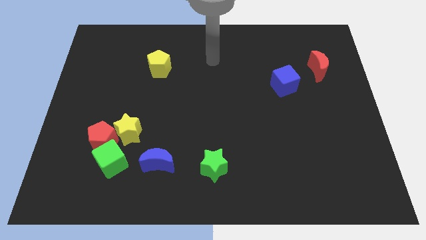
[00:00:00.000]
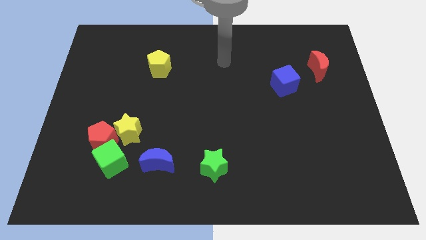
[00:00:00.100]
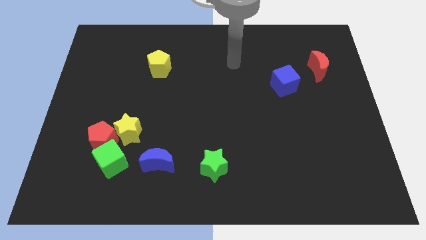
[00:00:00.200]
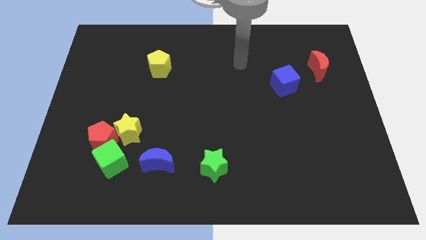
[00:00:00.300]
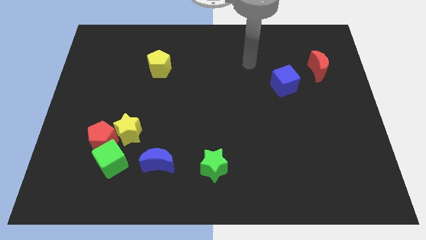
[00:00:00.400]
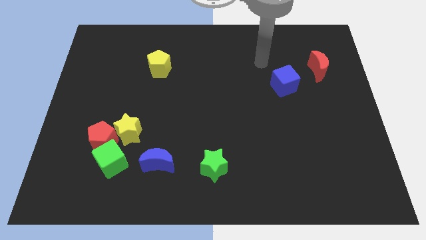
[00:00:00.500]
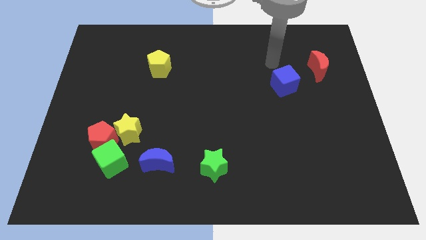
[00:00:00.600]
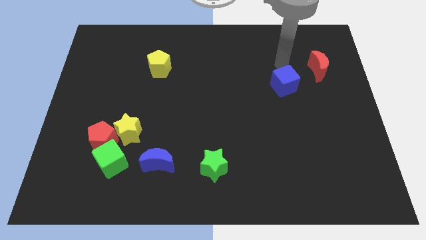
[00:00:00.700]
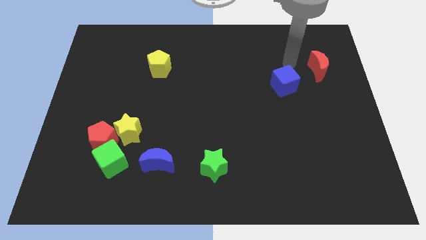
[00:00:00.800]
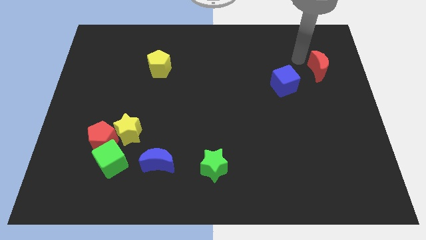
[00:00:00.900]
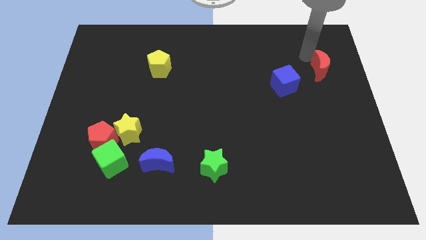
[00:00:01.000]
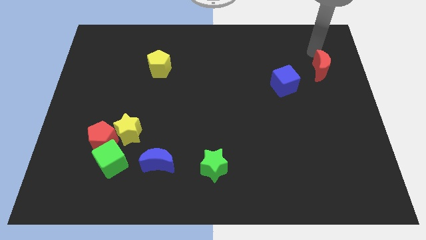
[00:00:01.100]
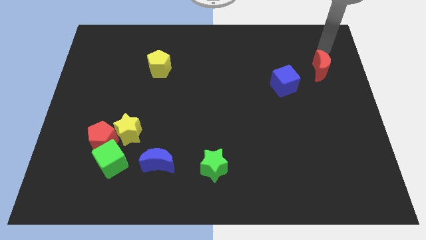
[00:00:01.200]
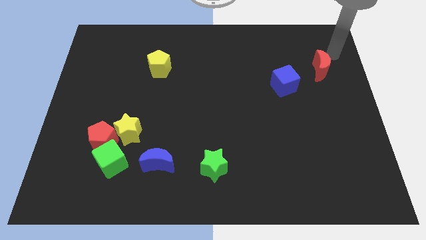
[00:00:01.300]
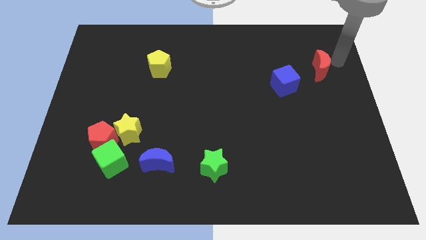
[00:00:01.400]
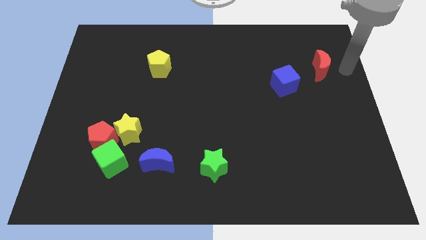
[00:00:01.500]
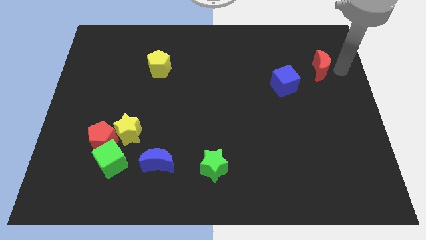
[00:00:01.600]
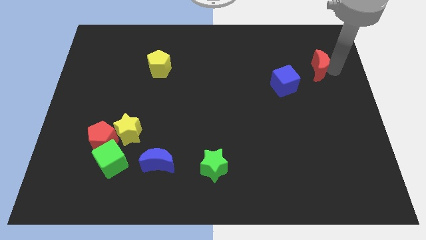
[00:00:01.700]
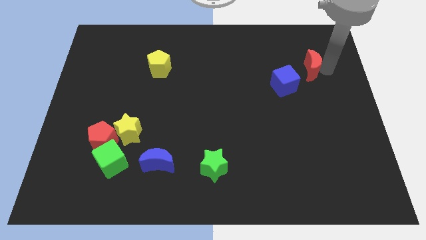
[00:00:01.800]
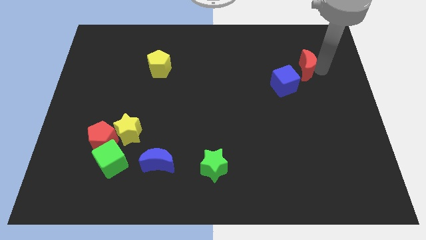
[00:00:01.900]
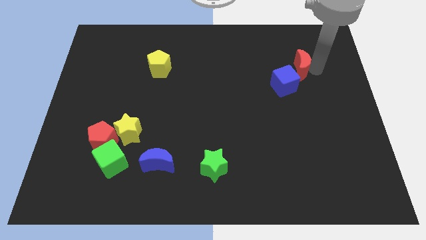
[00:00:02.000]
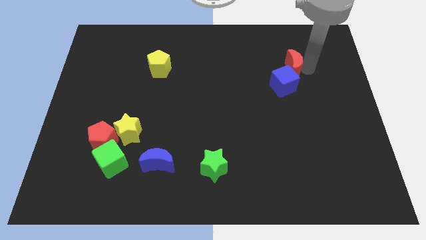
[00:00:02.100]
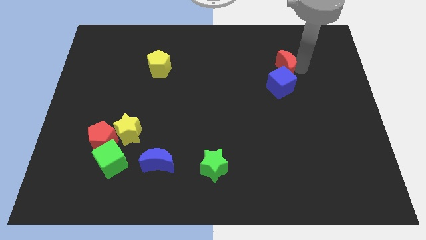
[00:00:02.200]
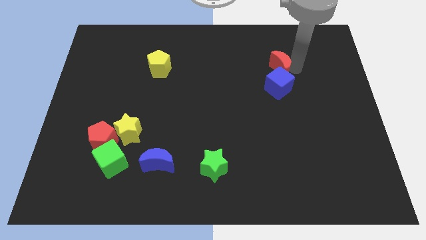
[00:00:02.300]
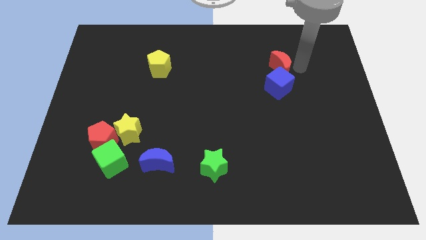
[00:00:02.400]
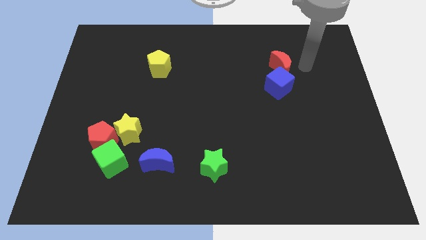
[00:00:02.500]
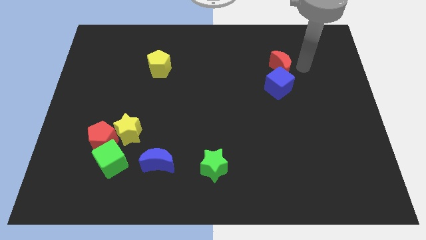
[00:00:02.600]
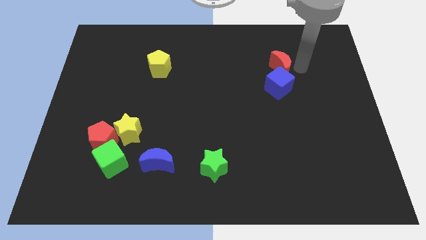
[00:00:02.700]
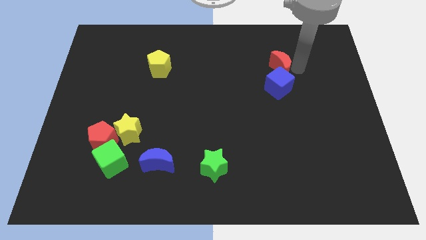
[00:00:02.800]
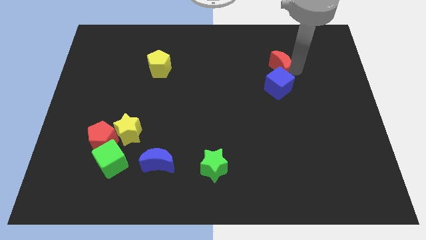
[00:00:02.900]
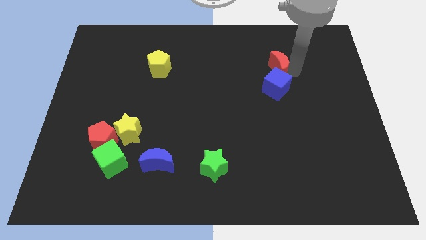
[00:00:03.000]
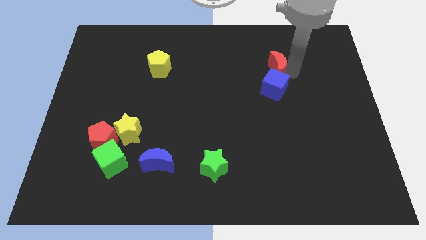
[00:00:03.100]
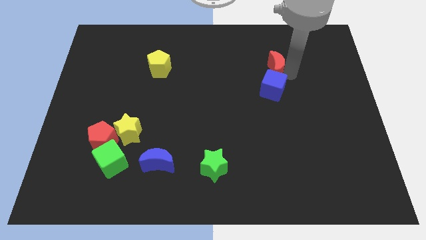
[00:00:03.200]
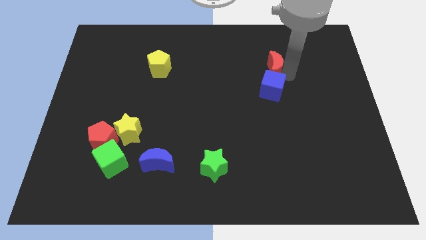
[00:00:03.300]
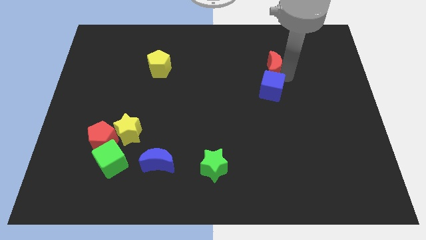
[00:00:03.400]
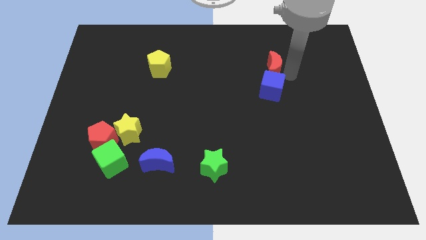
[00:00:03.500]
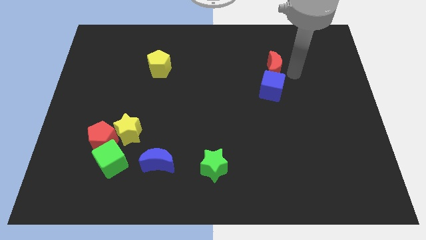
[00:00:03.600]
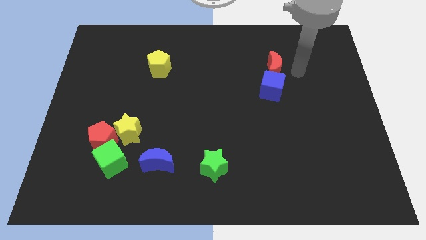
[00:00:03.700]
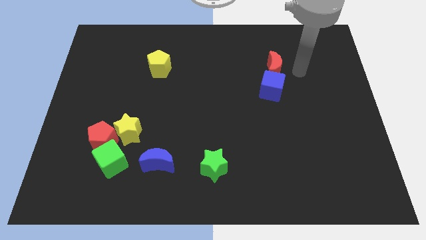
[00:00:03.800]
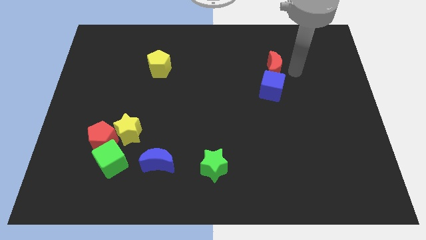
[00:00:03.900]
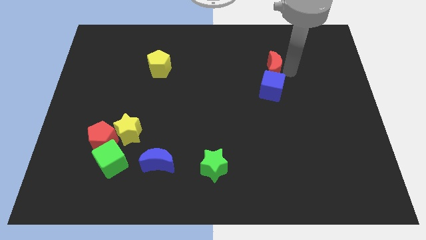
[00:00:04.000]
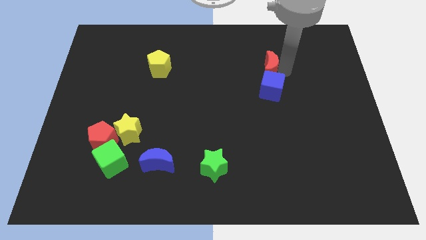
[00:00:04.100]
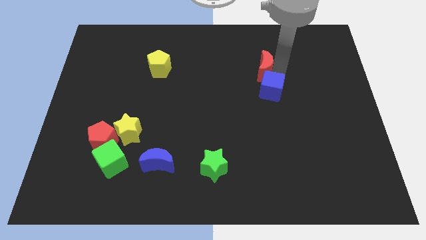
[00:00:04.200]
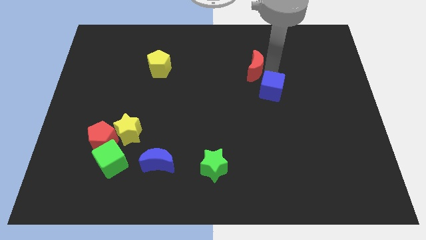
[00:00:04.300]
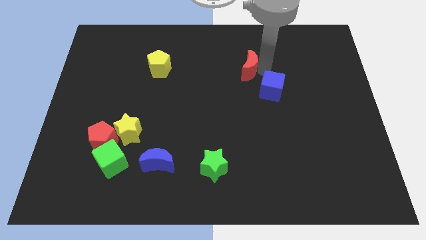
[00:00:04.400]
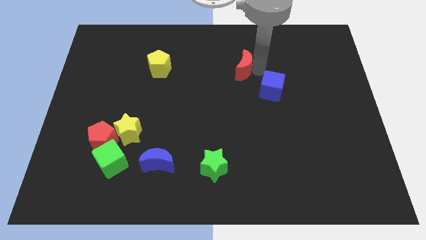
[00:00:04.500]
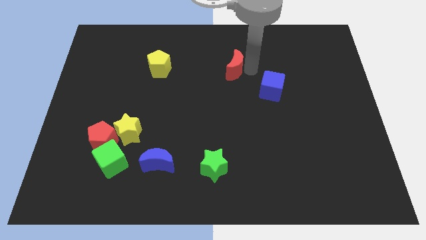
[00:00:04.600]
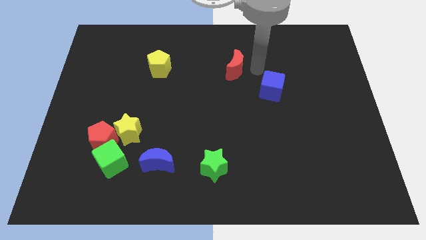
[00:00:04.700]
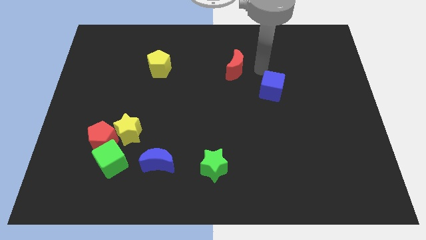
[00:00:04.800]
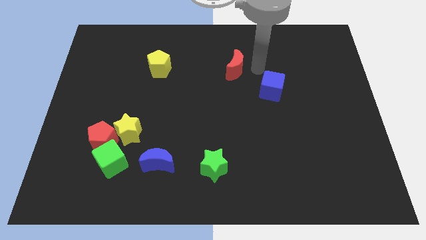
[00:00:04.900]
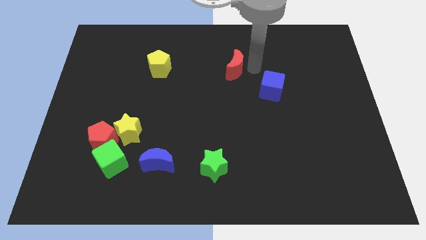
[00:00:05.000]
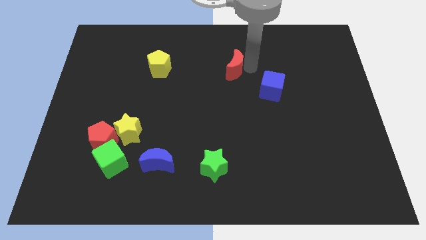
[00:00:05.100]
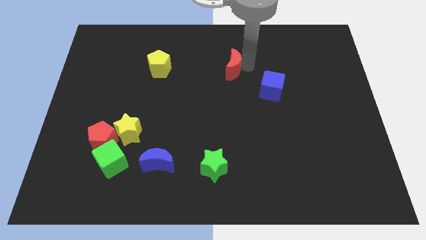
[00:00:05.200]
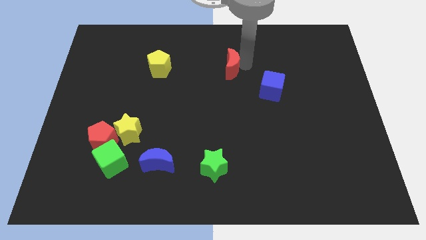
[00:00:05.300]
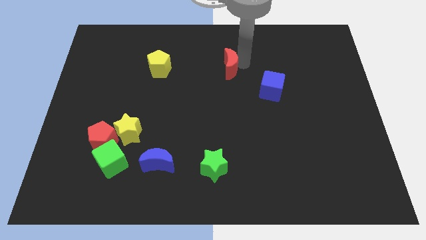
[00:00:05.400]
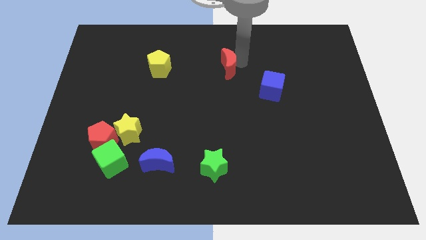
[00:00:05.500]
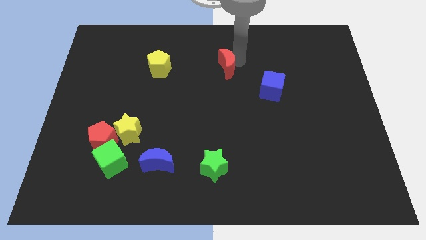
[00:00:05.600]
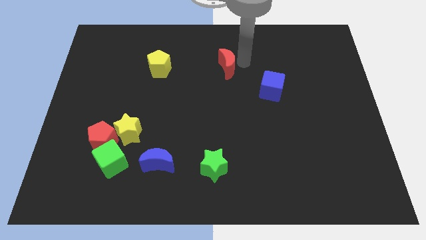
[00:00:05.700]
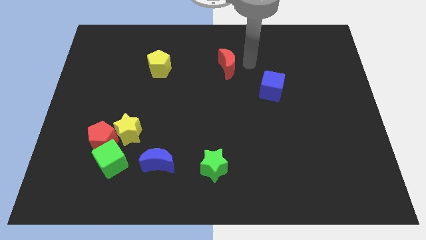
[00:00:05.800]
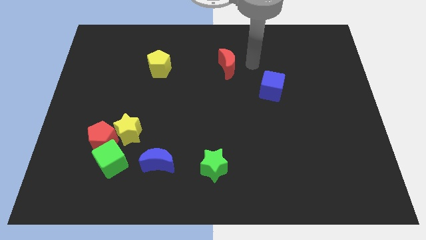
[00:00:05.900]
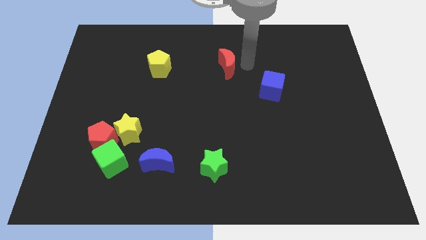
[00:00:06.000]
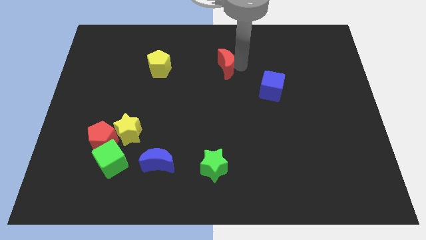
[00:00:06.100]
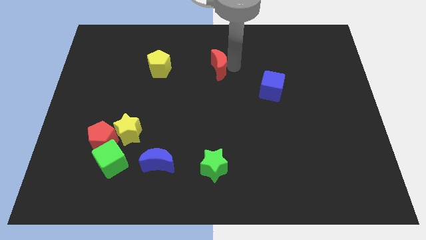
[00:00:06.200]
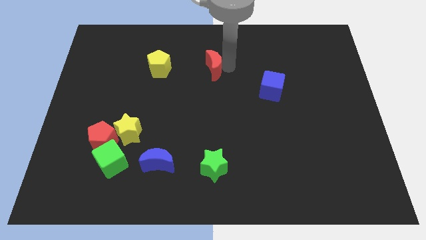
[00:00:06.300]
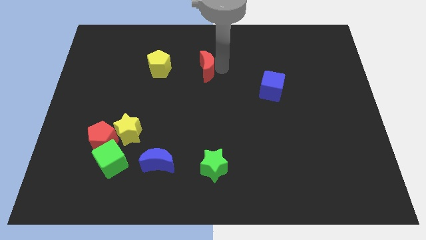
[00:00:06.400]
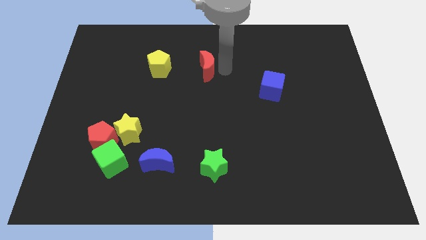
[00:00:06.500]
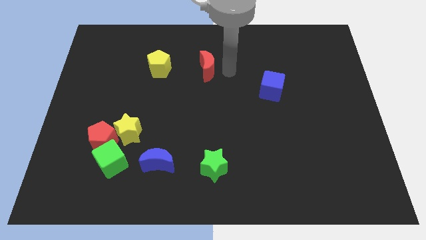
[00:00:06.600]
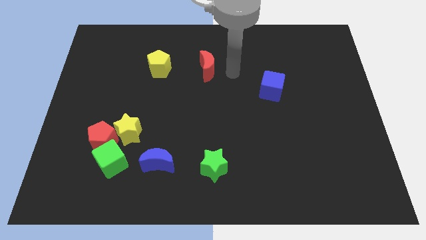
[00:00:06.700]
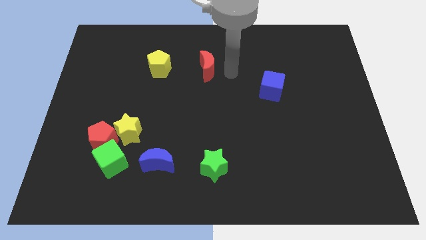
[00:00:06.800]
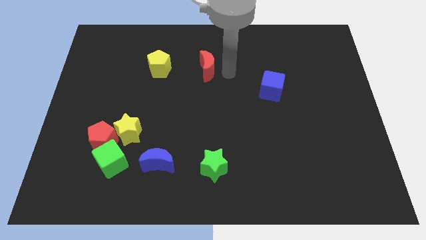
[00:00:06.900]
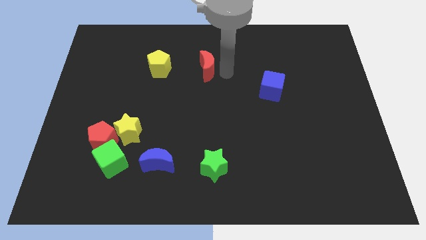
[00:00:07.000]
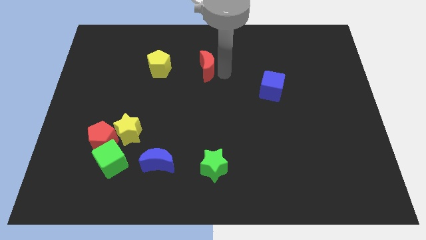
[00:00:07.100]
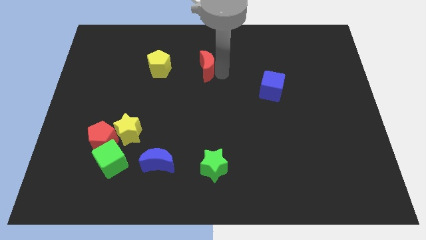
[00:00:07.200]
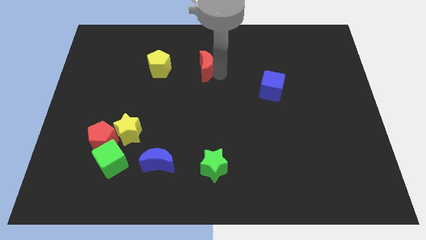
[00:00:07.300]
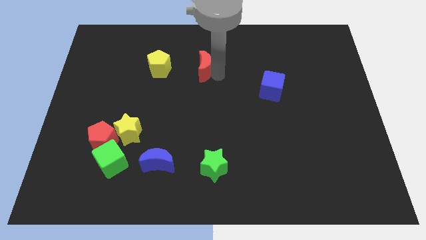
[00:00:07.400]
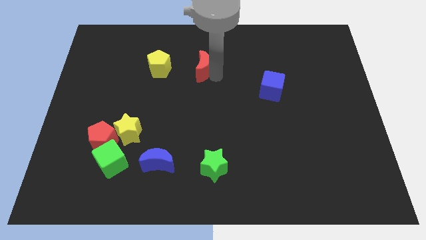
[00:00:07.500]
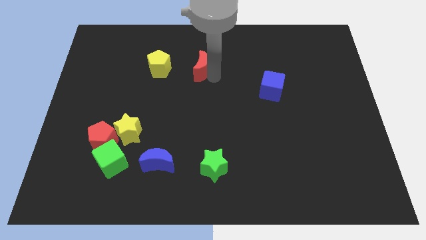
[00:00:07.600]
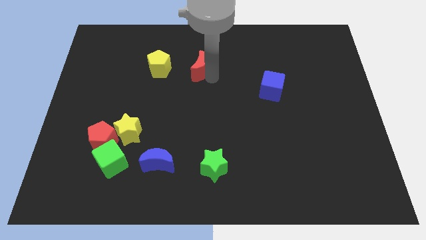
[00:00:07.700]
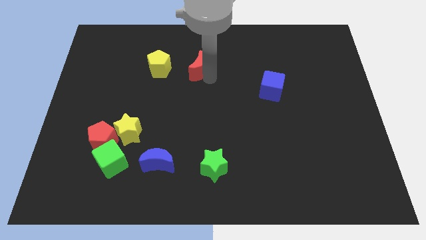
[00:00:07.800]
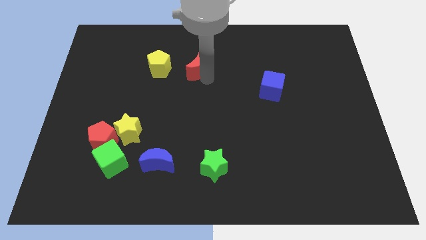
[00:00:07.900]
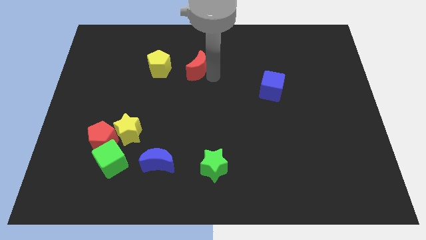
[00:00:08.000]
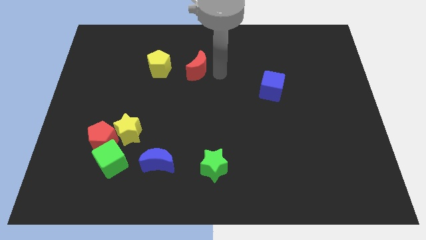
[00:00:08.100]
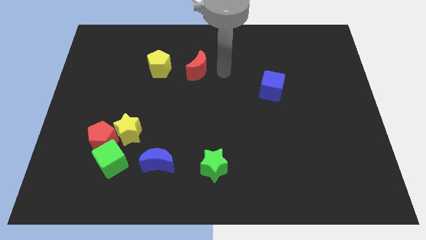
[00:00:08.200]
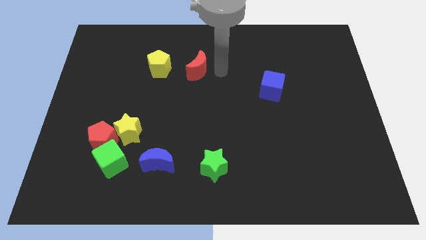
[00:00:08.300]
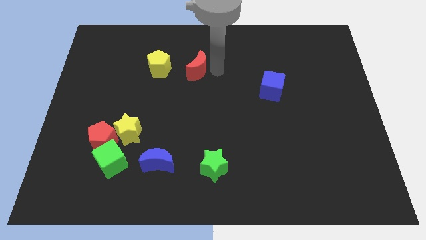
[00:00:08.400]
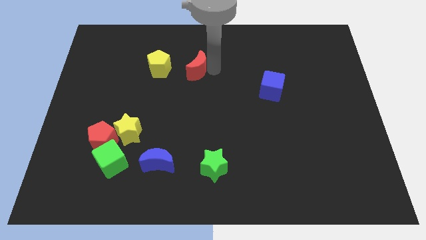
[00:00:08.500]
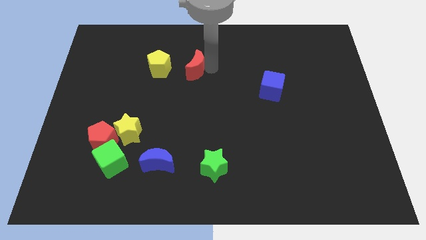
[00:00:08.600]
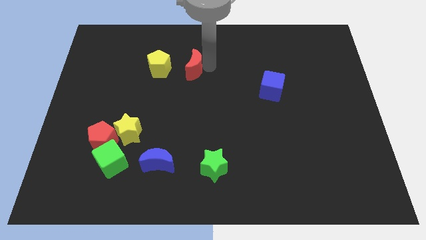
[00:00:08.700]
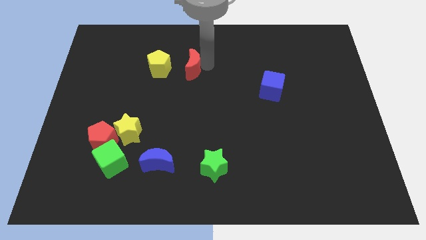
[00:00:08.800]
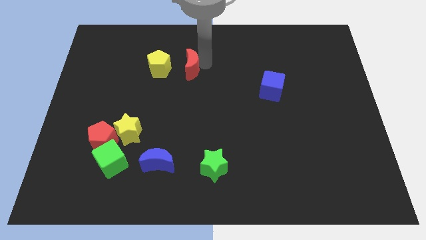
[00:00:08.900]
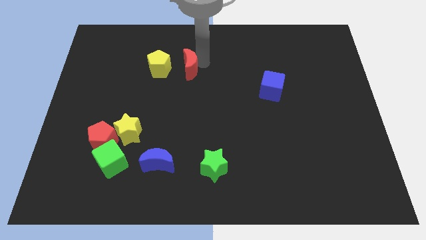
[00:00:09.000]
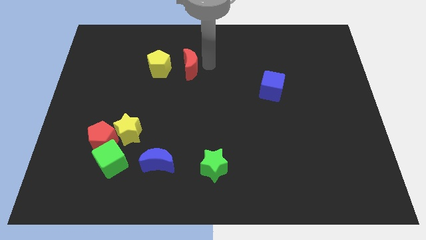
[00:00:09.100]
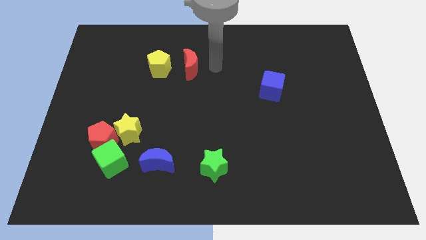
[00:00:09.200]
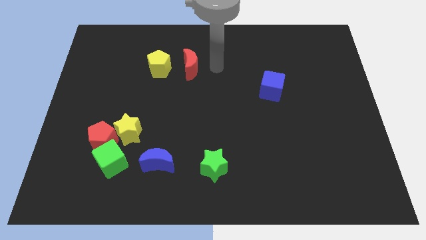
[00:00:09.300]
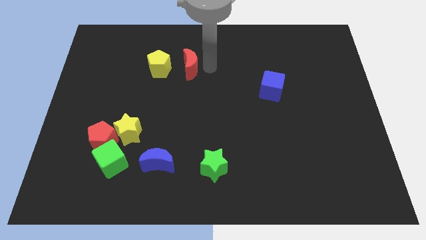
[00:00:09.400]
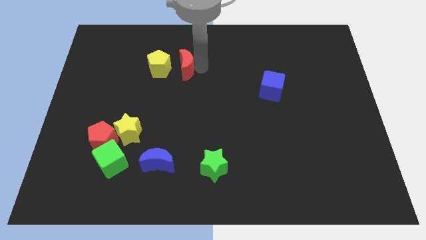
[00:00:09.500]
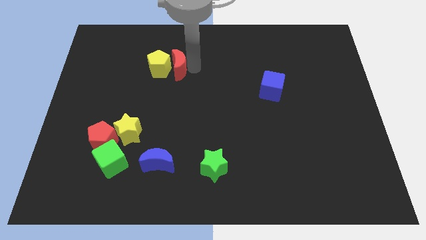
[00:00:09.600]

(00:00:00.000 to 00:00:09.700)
move the red moon next to the yellow pentagon
